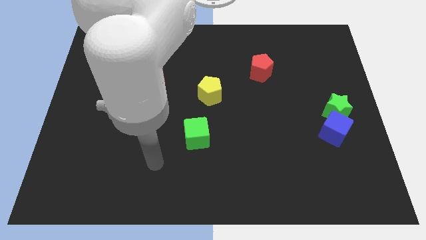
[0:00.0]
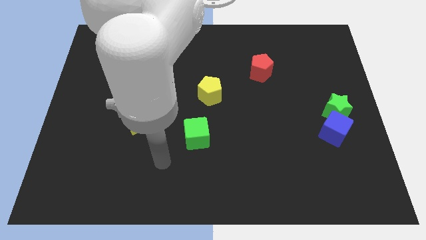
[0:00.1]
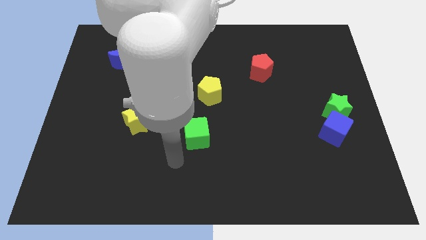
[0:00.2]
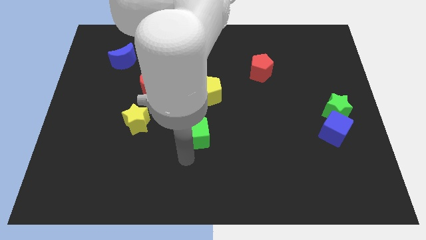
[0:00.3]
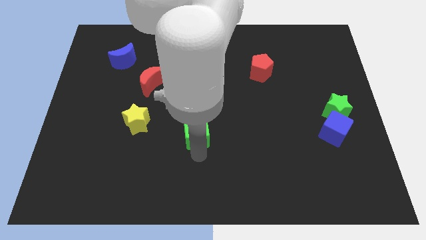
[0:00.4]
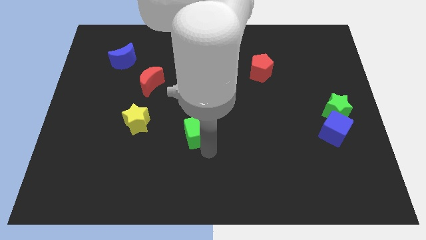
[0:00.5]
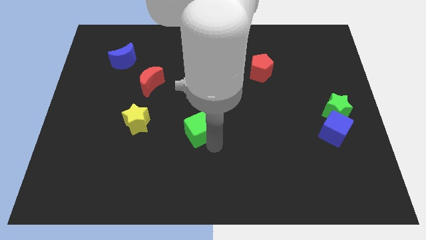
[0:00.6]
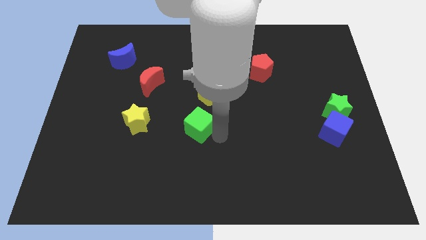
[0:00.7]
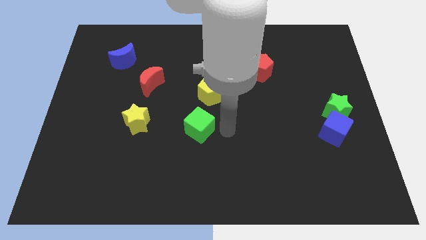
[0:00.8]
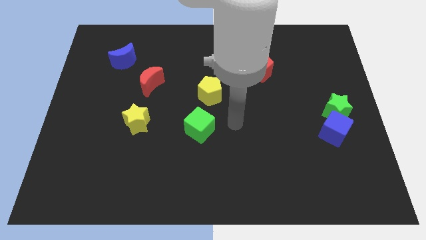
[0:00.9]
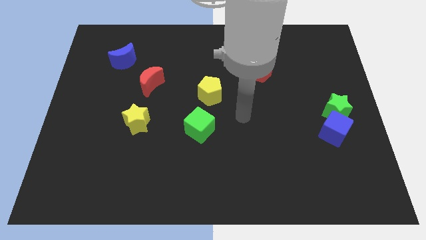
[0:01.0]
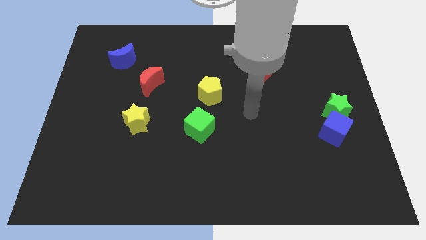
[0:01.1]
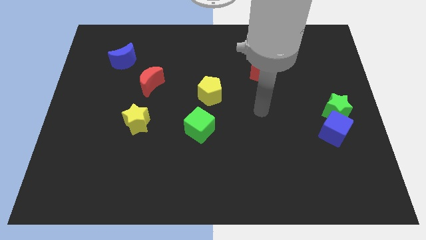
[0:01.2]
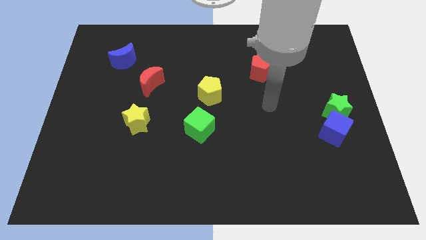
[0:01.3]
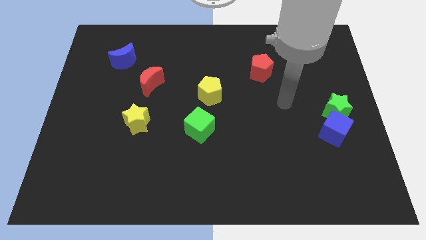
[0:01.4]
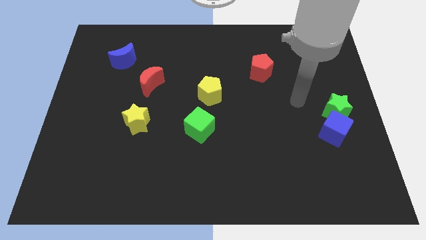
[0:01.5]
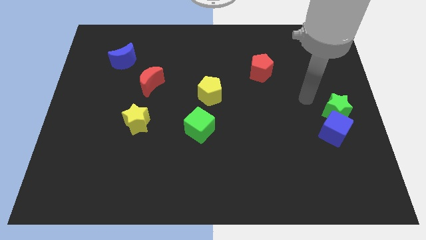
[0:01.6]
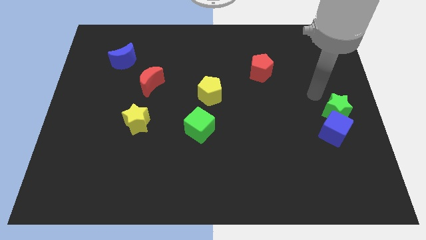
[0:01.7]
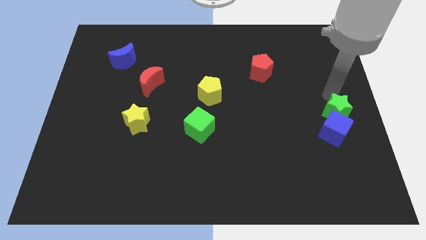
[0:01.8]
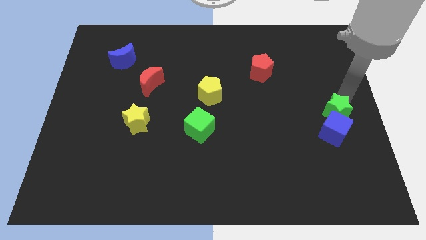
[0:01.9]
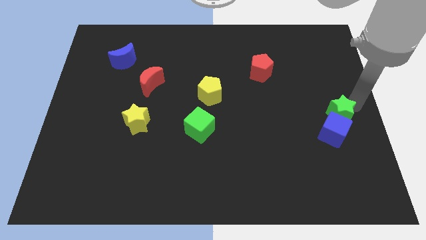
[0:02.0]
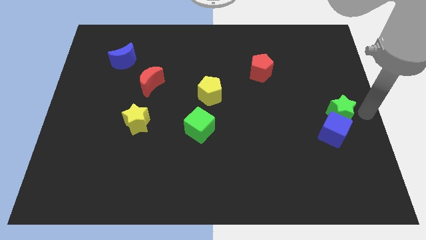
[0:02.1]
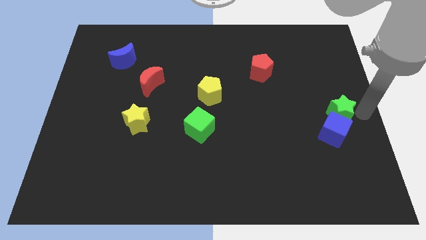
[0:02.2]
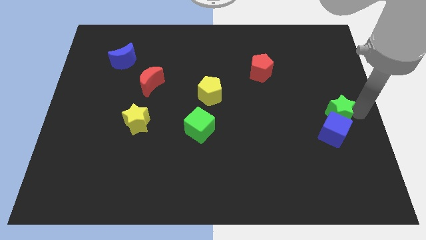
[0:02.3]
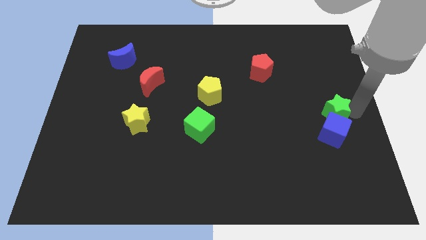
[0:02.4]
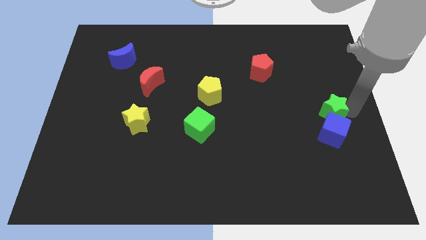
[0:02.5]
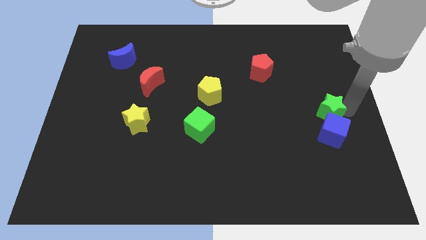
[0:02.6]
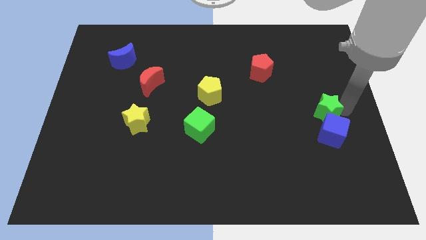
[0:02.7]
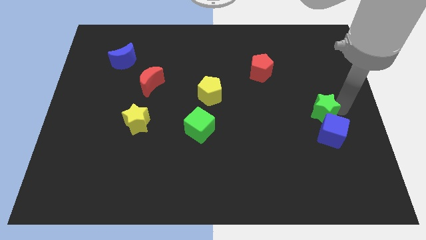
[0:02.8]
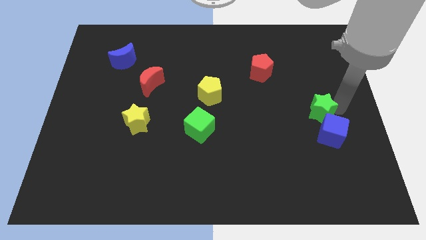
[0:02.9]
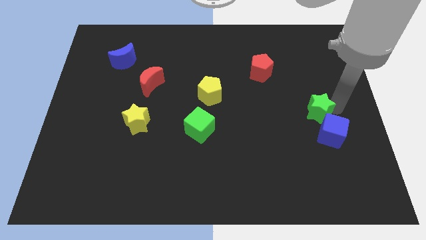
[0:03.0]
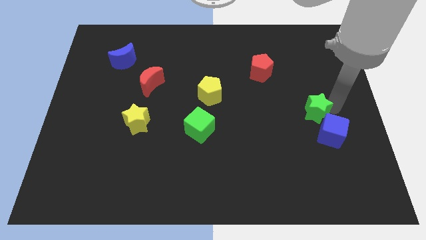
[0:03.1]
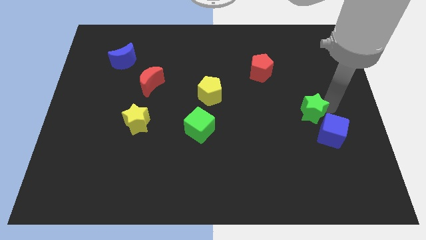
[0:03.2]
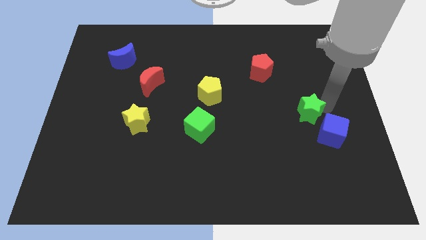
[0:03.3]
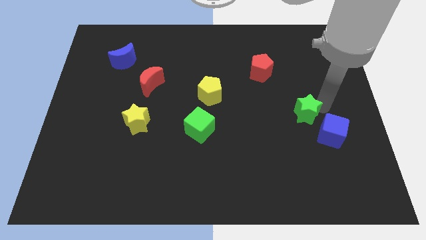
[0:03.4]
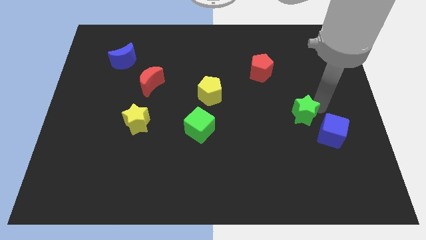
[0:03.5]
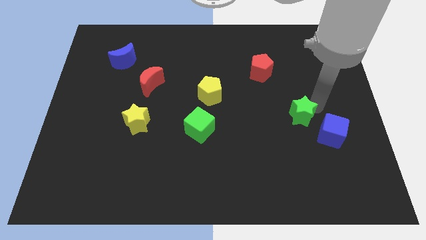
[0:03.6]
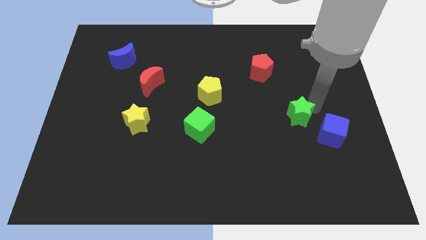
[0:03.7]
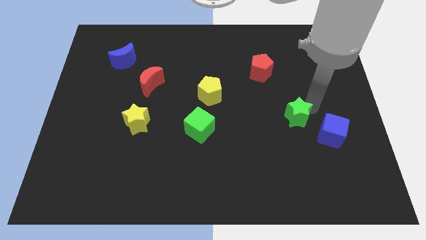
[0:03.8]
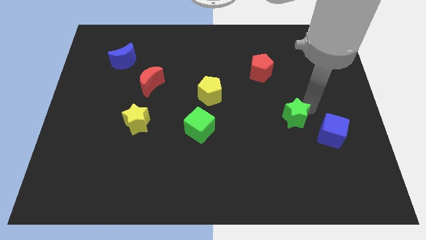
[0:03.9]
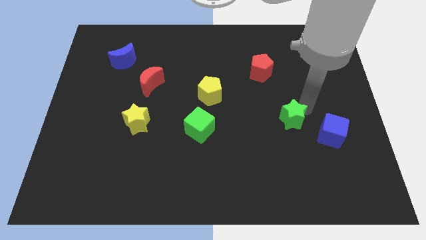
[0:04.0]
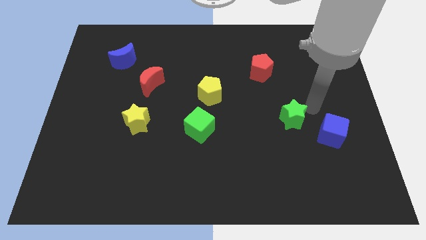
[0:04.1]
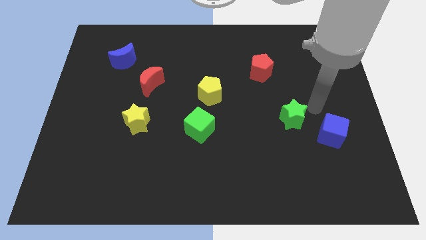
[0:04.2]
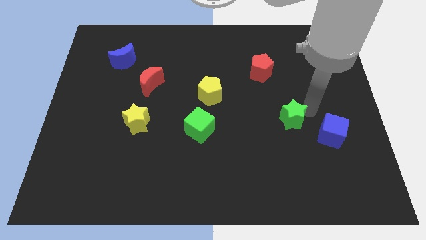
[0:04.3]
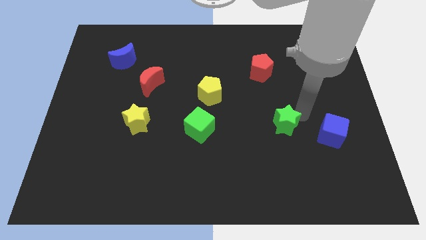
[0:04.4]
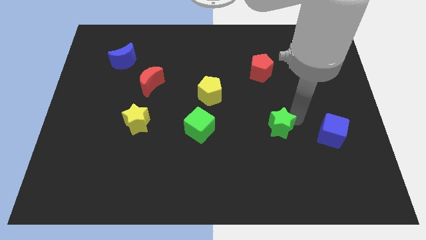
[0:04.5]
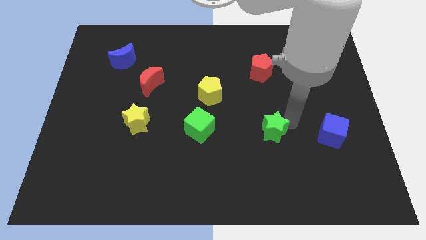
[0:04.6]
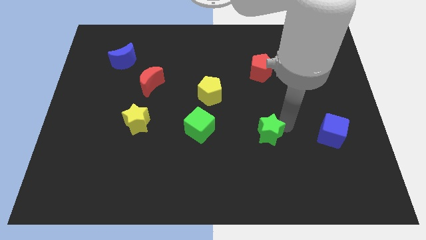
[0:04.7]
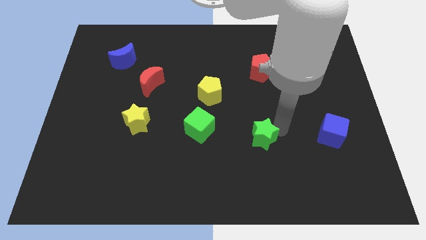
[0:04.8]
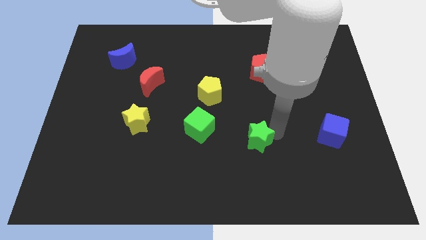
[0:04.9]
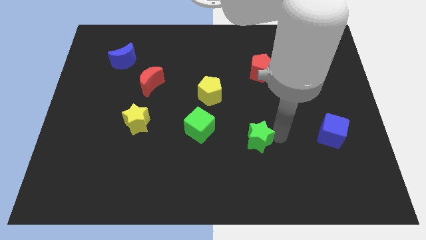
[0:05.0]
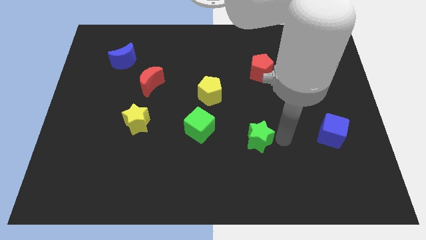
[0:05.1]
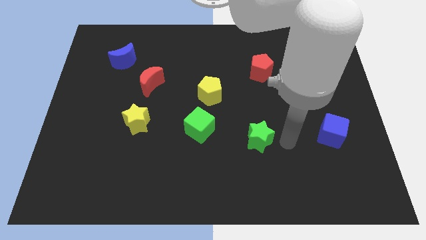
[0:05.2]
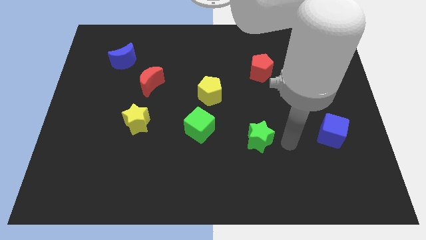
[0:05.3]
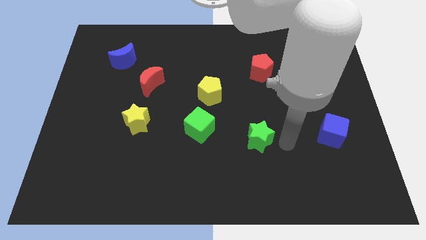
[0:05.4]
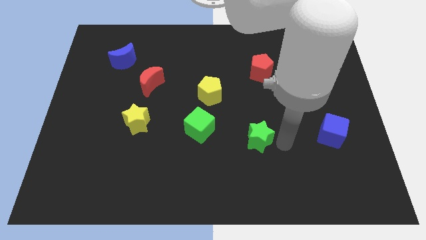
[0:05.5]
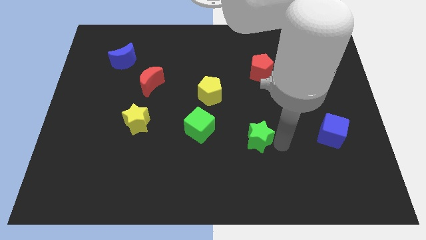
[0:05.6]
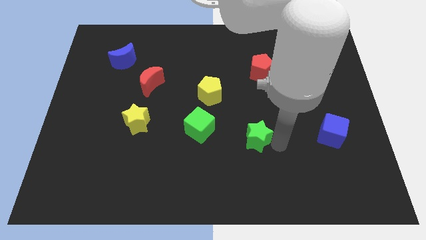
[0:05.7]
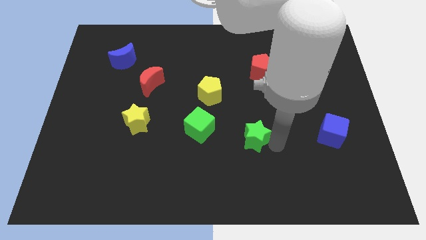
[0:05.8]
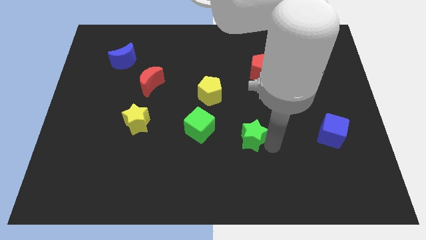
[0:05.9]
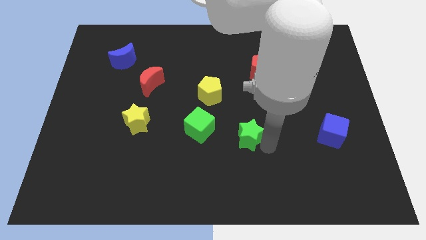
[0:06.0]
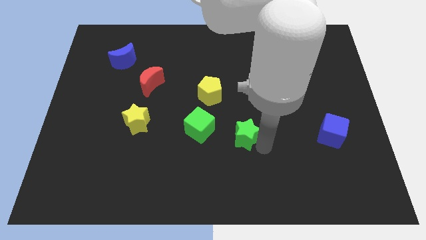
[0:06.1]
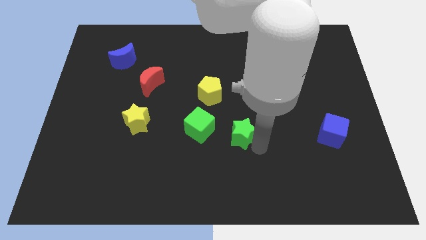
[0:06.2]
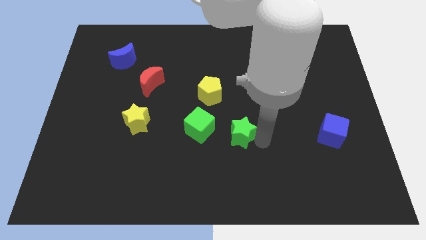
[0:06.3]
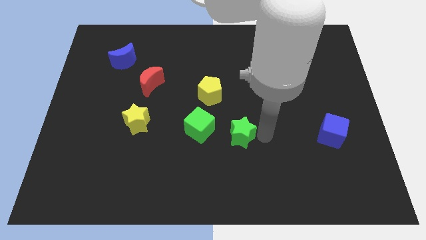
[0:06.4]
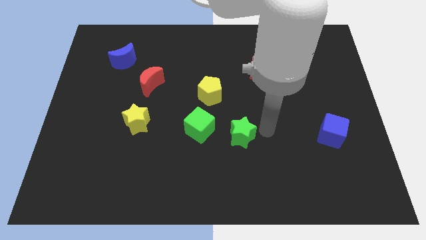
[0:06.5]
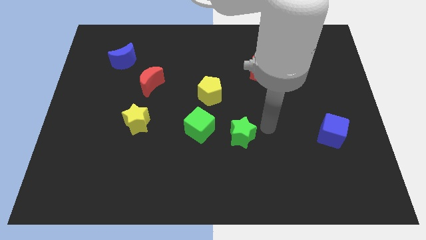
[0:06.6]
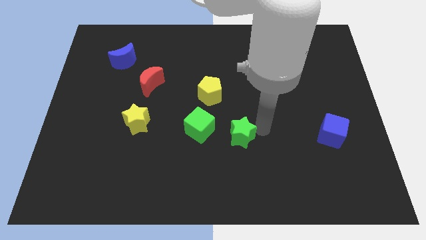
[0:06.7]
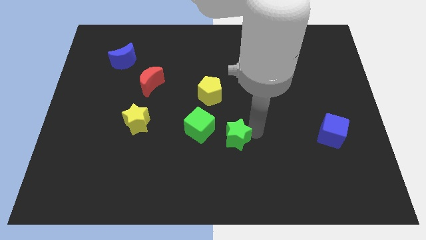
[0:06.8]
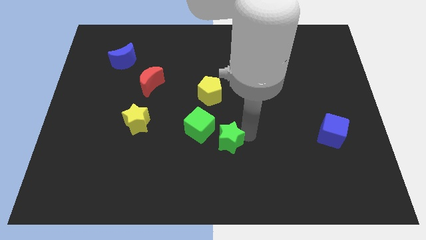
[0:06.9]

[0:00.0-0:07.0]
slide the green star to the bottom side of the yellow pentagon
